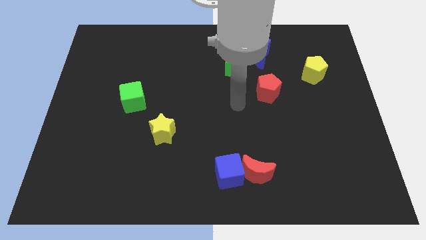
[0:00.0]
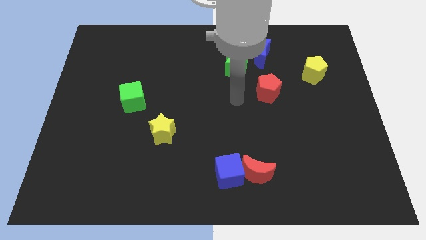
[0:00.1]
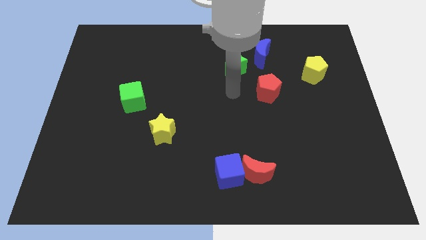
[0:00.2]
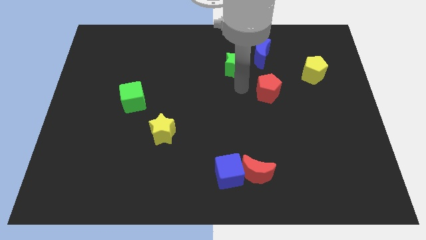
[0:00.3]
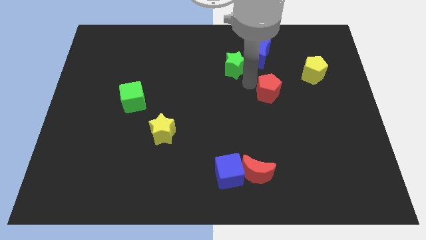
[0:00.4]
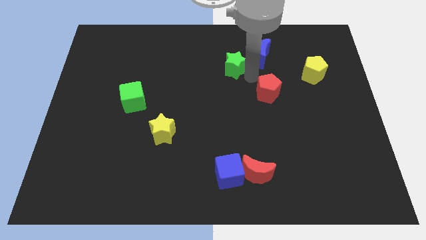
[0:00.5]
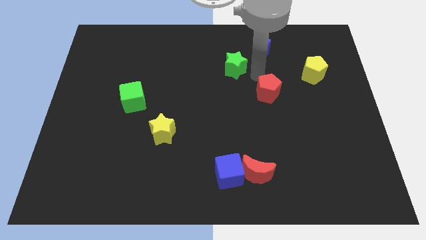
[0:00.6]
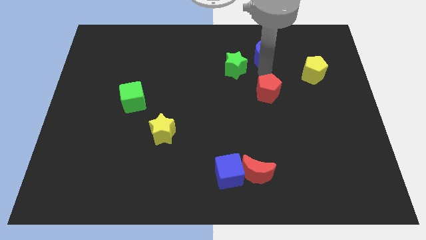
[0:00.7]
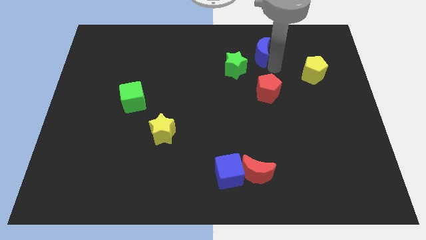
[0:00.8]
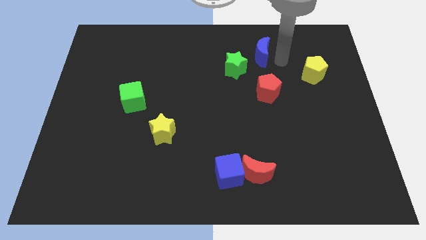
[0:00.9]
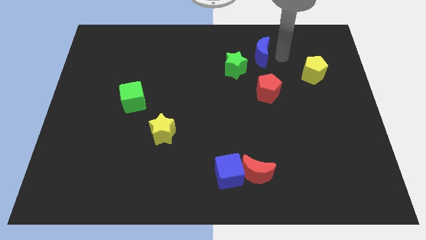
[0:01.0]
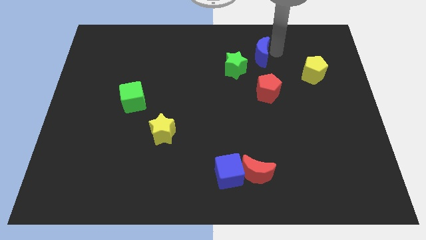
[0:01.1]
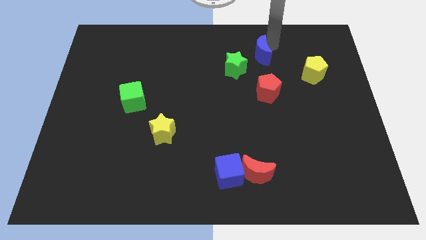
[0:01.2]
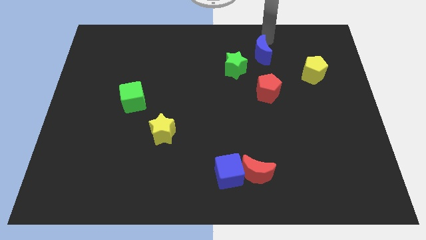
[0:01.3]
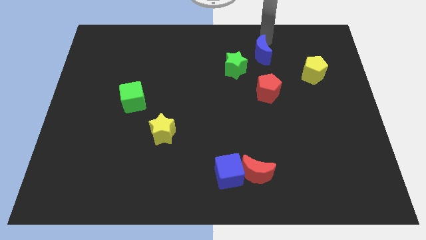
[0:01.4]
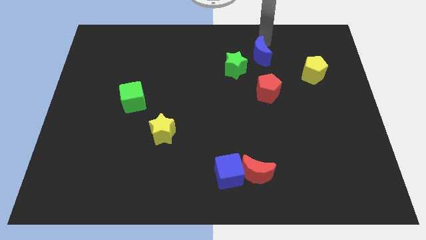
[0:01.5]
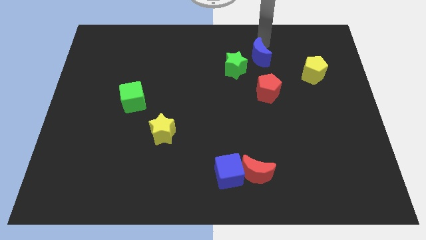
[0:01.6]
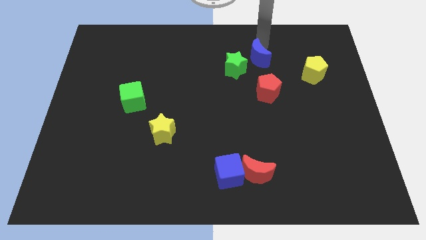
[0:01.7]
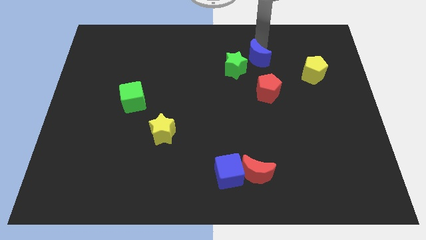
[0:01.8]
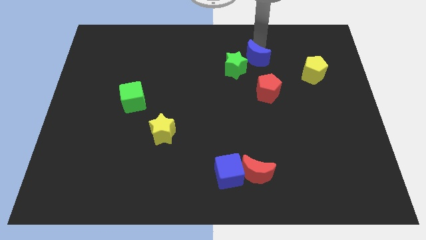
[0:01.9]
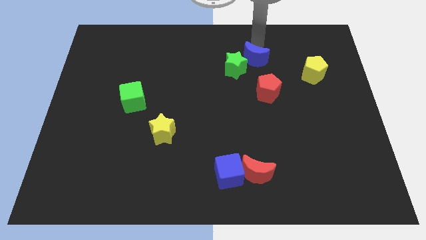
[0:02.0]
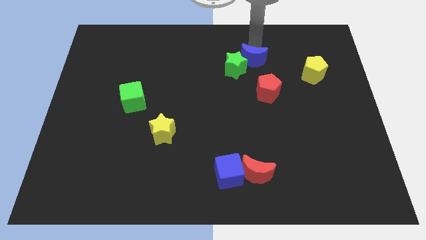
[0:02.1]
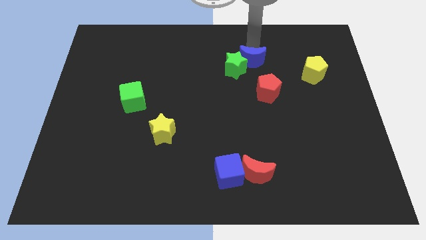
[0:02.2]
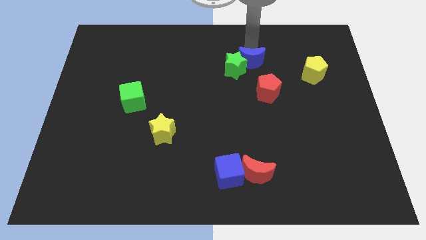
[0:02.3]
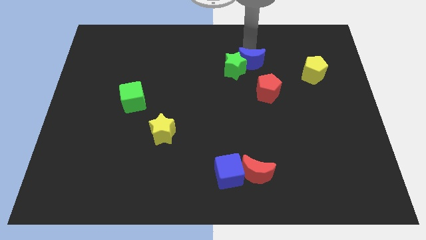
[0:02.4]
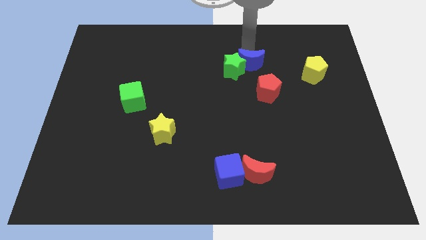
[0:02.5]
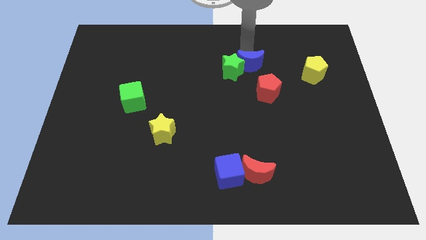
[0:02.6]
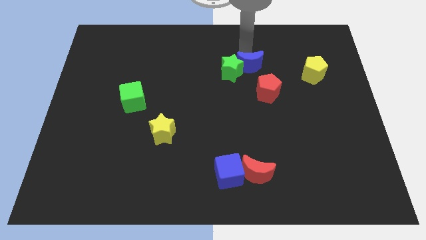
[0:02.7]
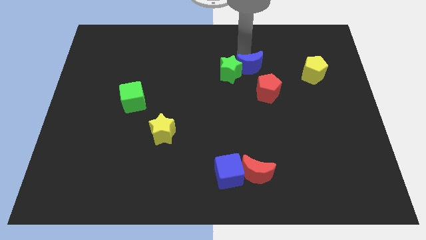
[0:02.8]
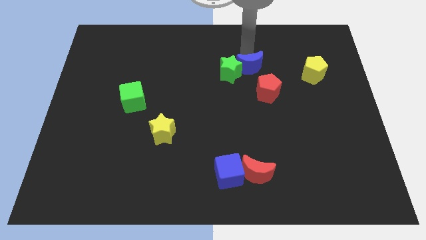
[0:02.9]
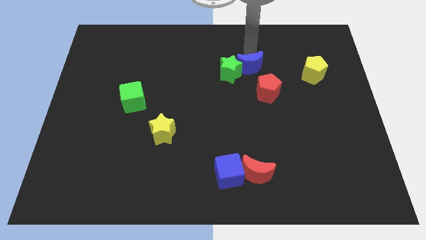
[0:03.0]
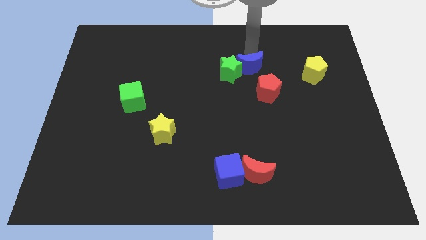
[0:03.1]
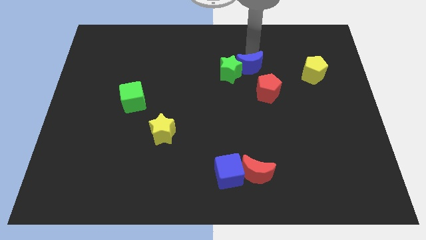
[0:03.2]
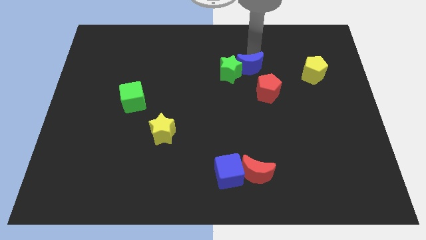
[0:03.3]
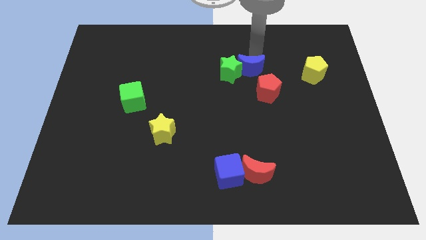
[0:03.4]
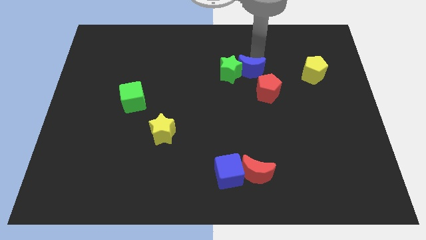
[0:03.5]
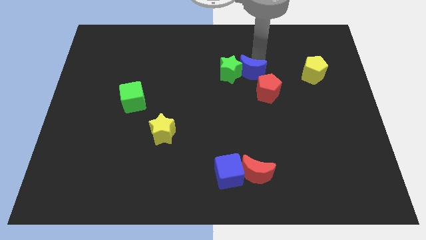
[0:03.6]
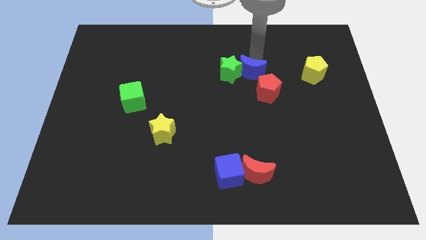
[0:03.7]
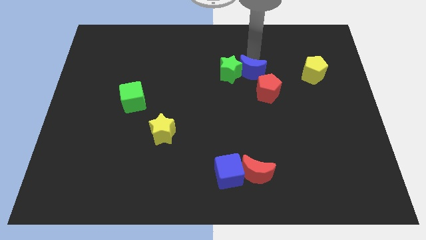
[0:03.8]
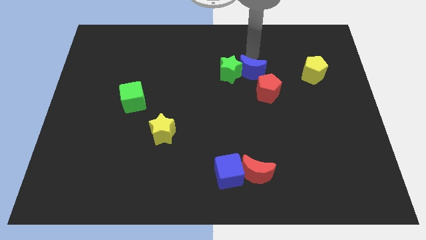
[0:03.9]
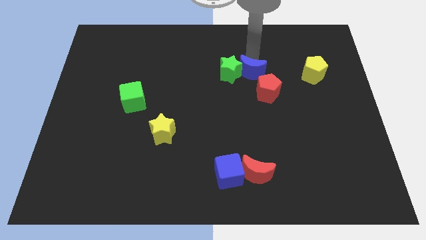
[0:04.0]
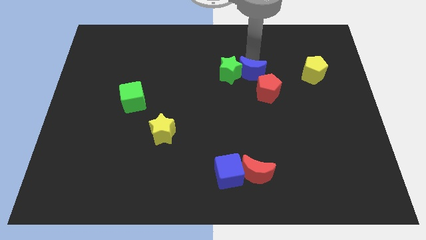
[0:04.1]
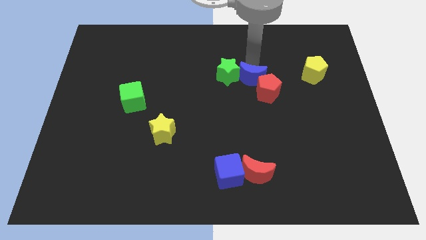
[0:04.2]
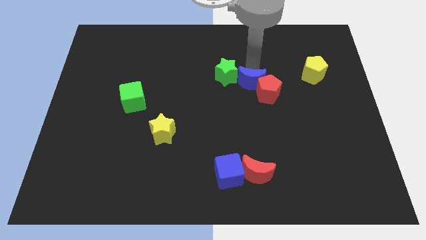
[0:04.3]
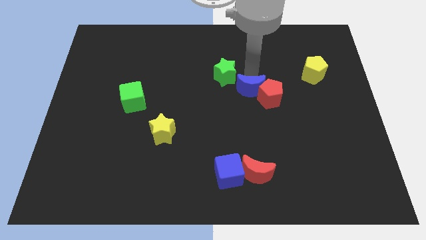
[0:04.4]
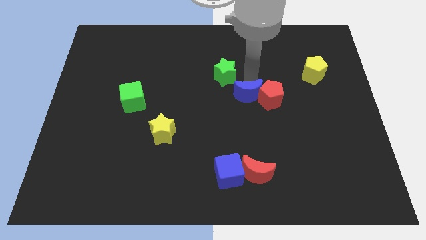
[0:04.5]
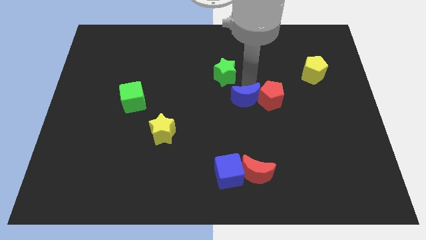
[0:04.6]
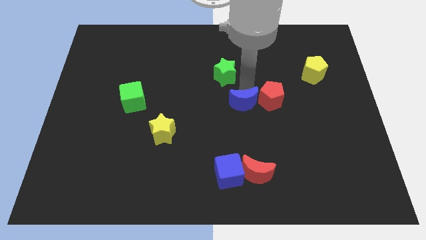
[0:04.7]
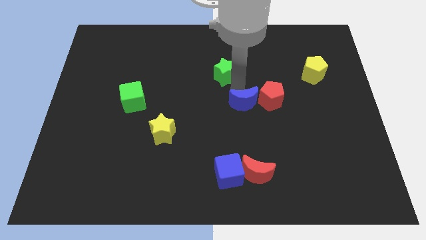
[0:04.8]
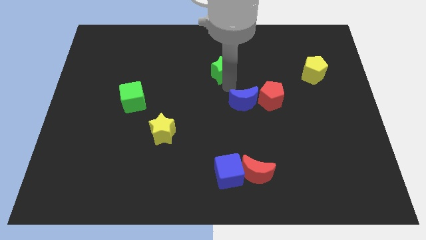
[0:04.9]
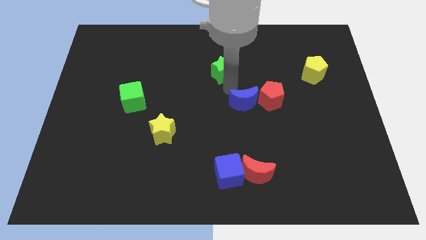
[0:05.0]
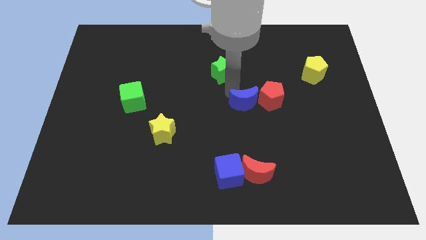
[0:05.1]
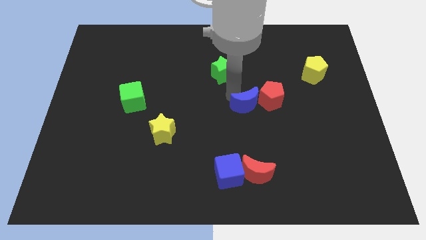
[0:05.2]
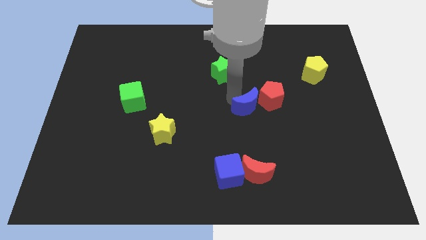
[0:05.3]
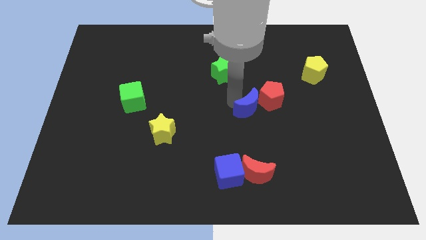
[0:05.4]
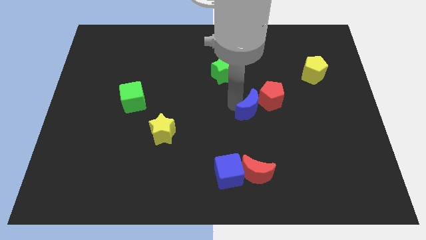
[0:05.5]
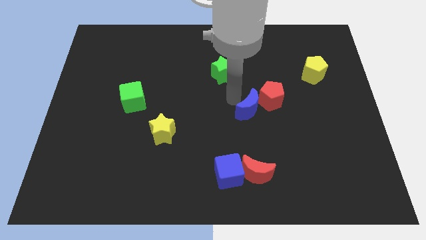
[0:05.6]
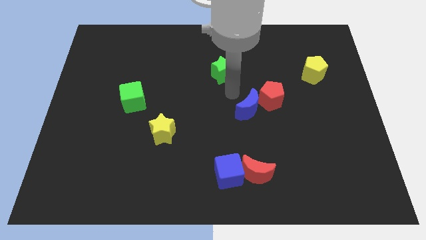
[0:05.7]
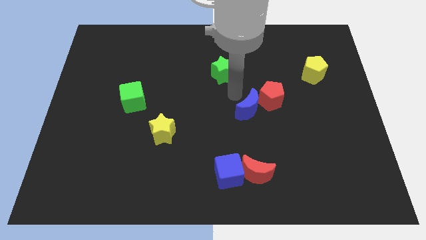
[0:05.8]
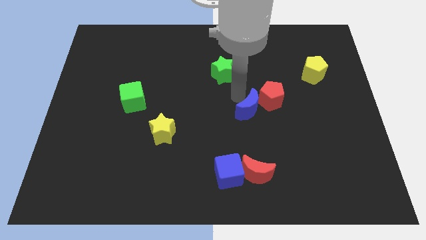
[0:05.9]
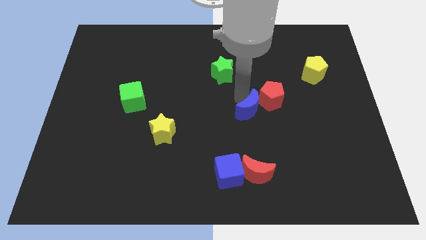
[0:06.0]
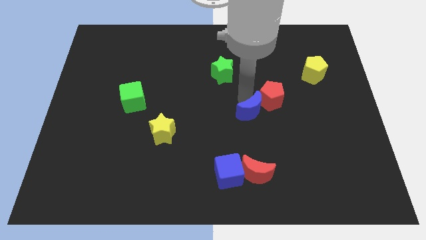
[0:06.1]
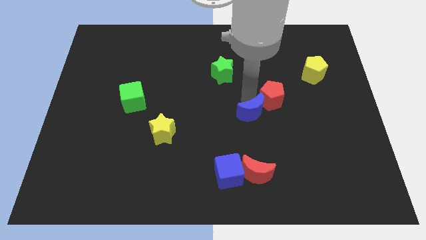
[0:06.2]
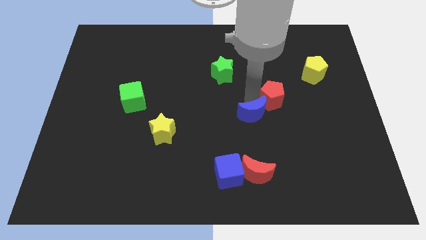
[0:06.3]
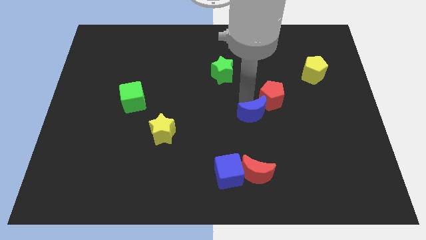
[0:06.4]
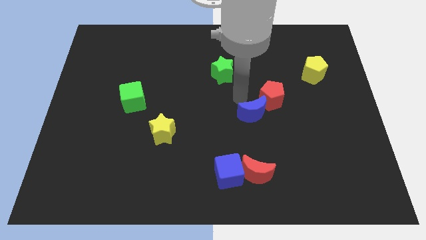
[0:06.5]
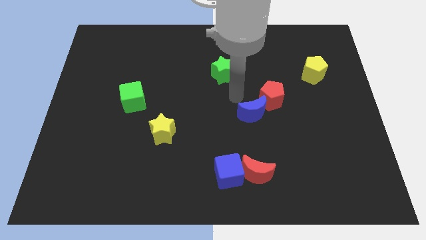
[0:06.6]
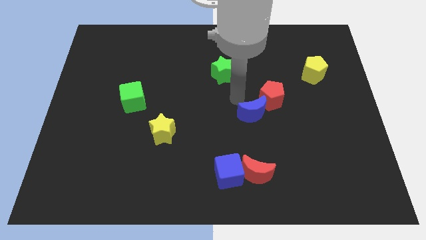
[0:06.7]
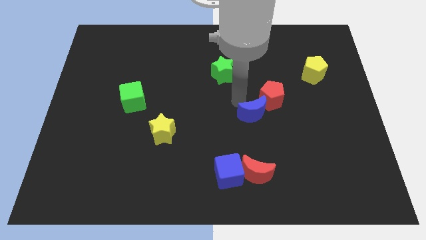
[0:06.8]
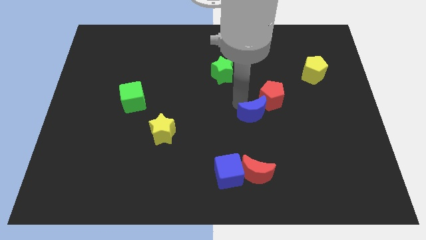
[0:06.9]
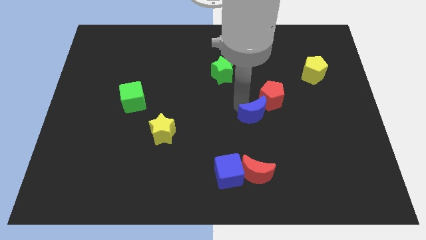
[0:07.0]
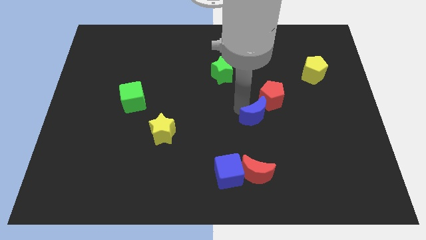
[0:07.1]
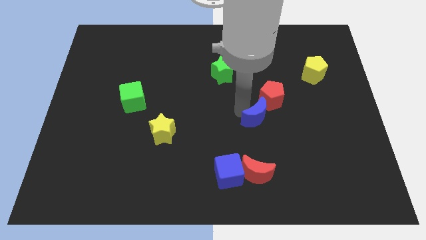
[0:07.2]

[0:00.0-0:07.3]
move the blue moon down

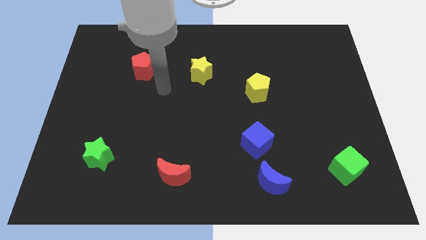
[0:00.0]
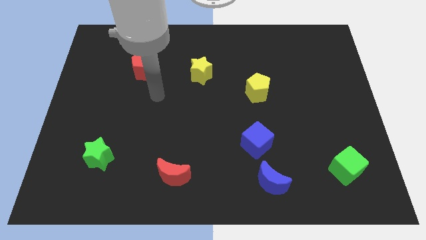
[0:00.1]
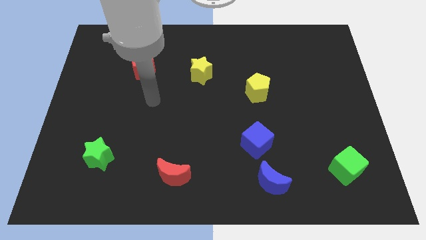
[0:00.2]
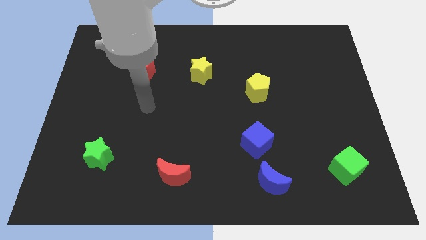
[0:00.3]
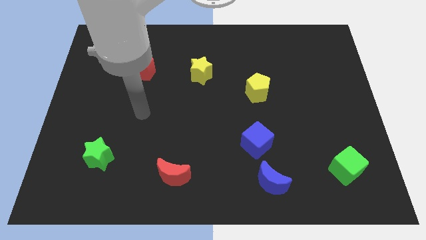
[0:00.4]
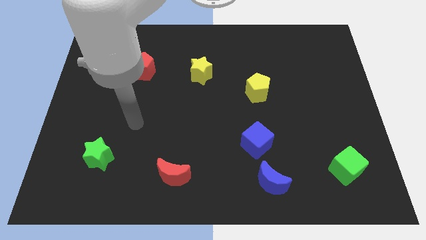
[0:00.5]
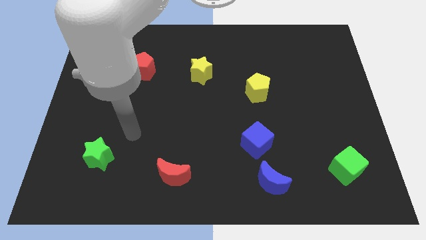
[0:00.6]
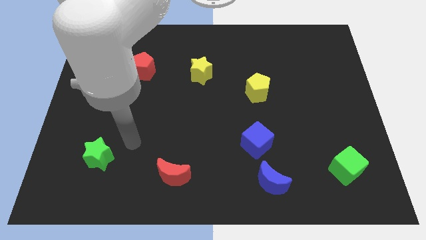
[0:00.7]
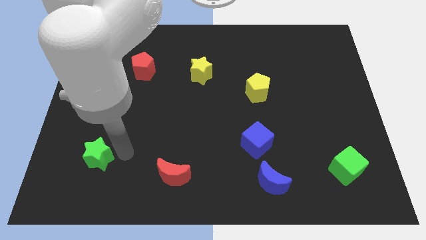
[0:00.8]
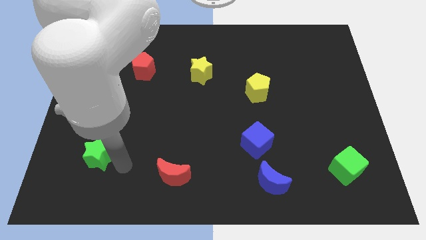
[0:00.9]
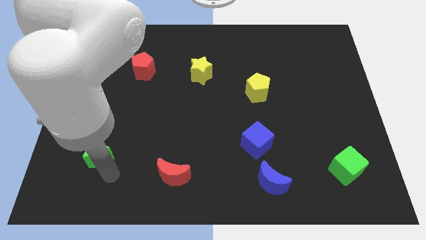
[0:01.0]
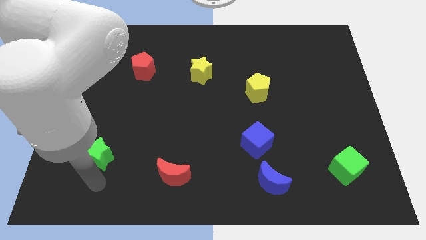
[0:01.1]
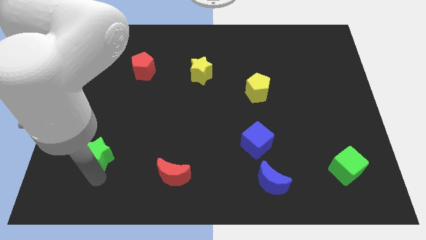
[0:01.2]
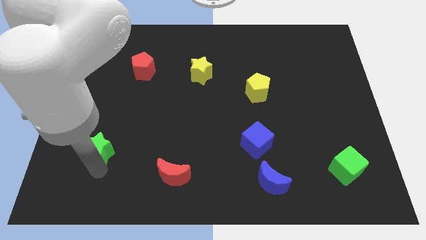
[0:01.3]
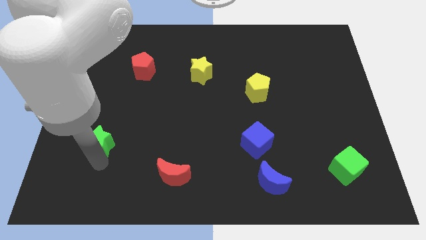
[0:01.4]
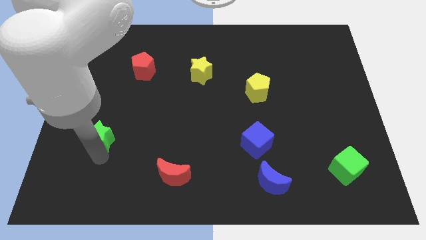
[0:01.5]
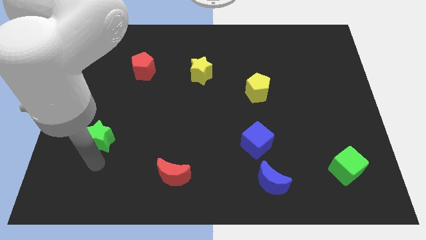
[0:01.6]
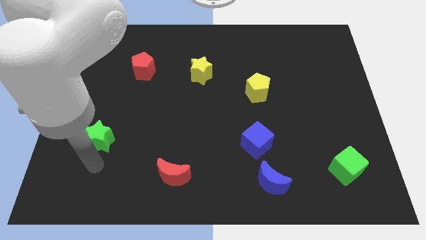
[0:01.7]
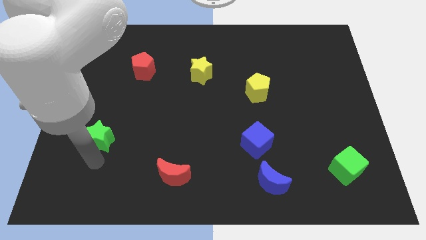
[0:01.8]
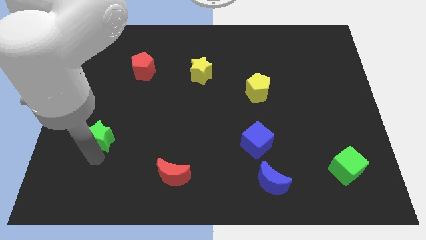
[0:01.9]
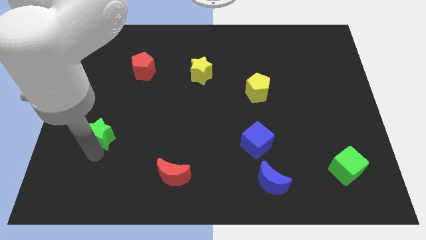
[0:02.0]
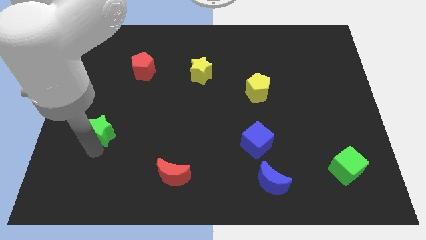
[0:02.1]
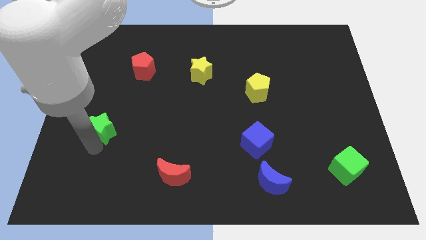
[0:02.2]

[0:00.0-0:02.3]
slightly move the green star up
